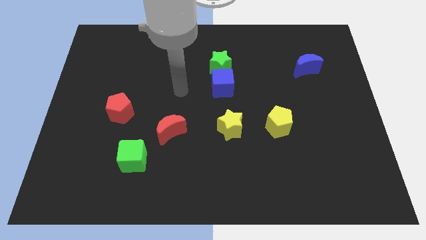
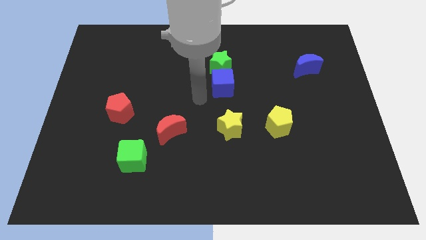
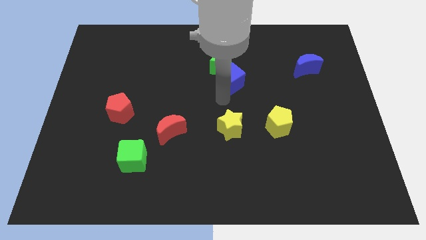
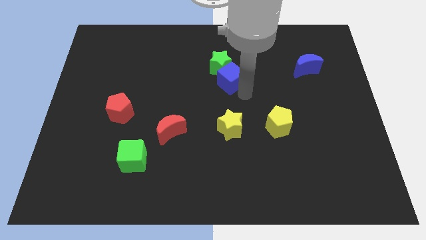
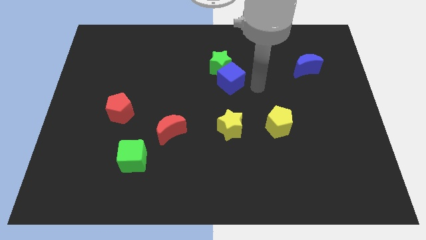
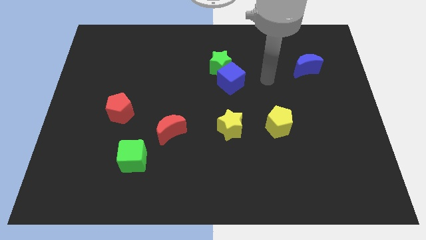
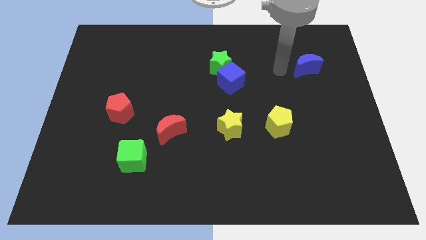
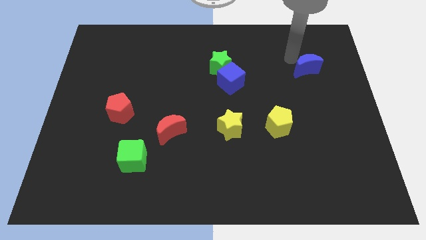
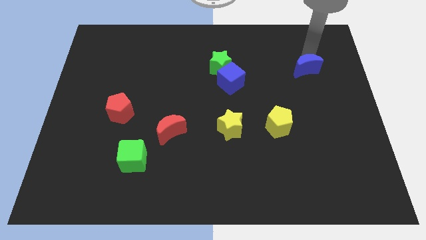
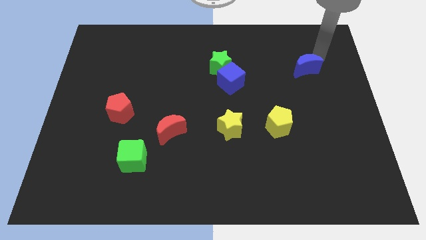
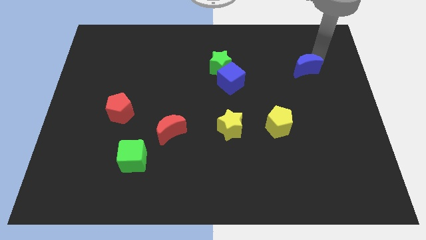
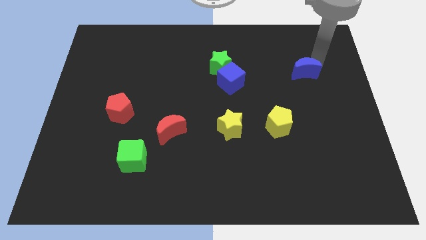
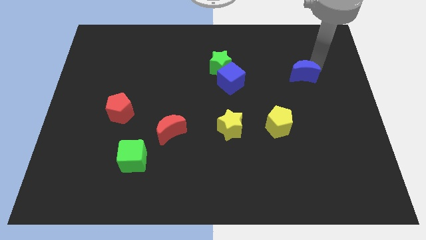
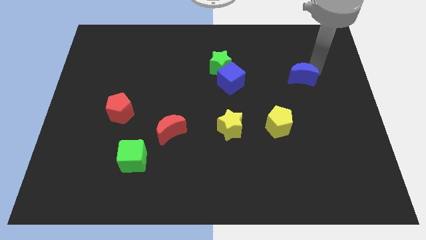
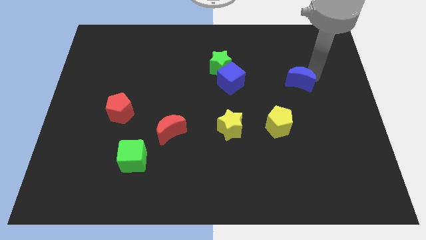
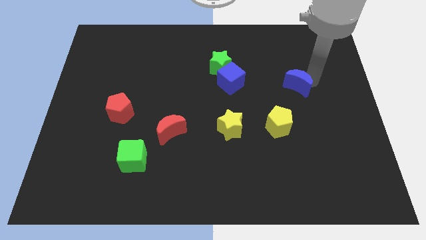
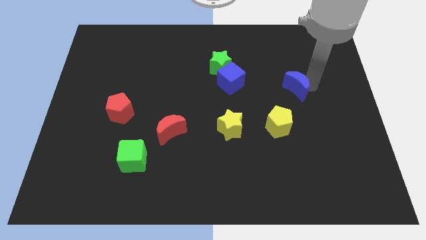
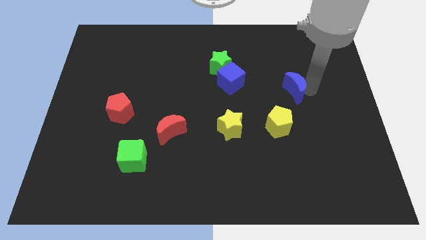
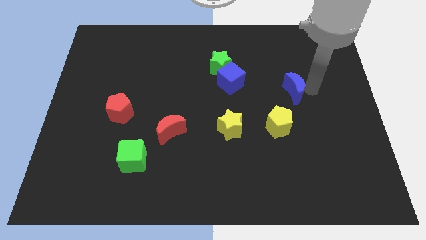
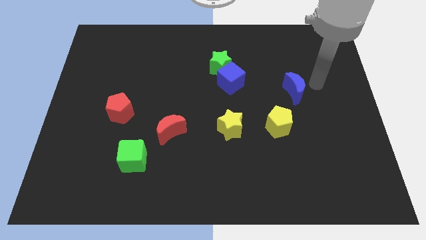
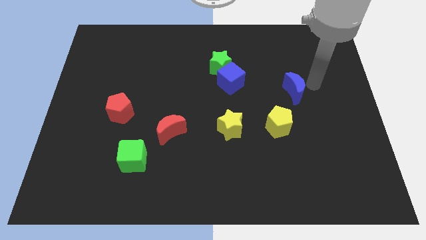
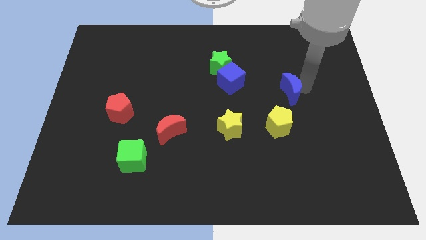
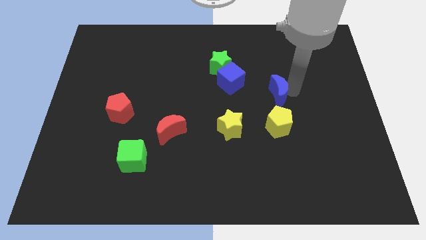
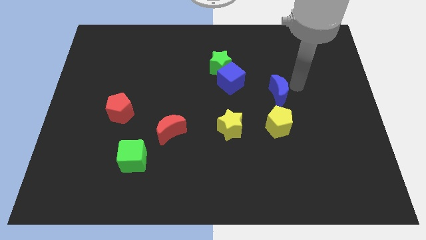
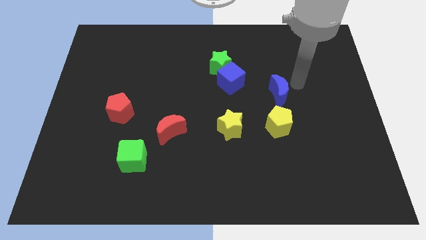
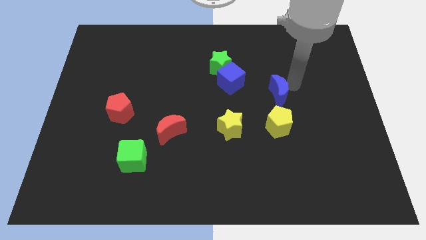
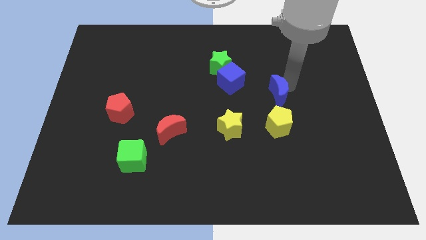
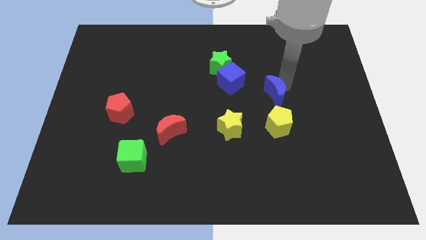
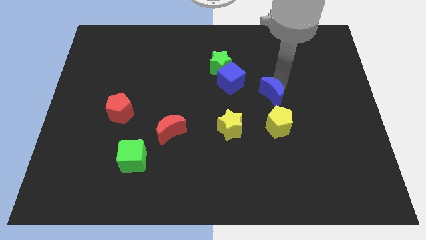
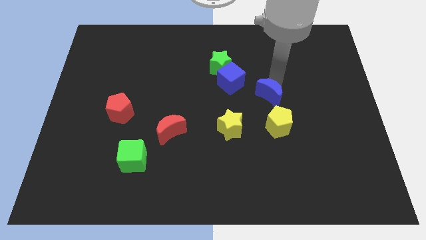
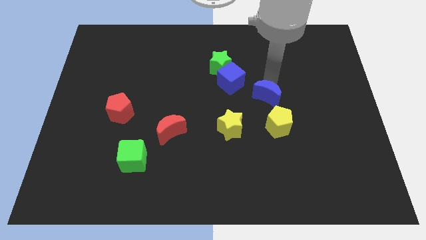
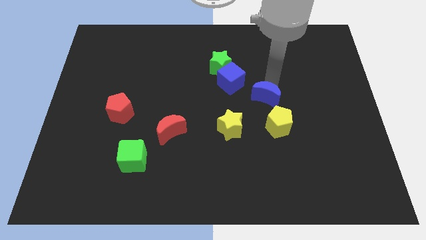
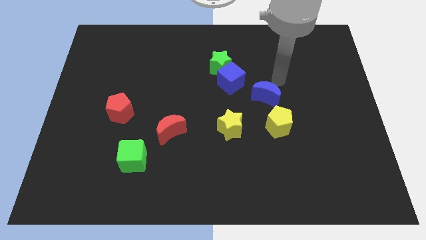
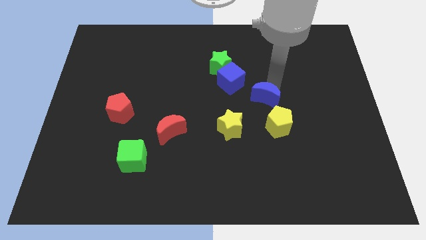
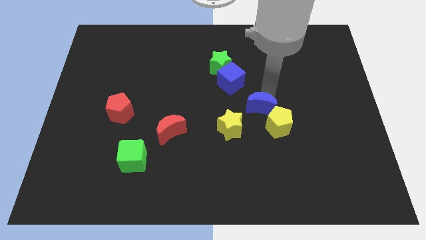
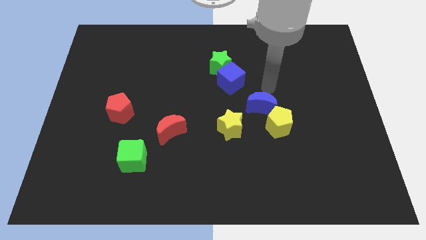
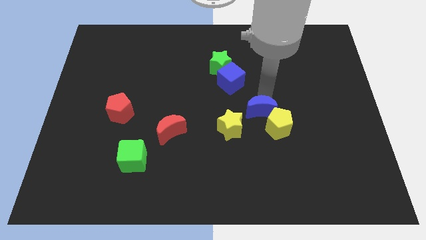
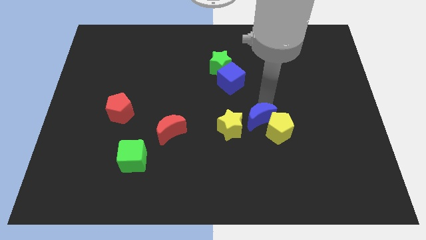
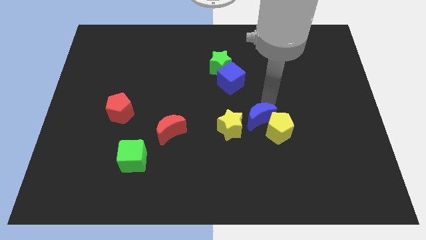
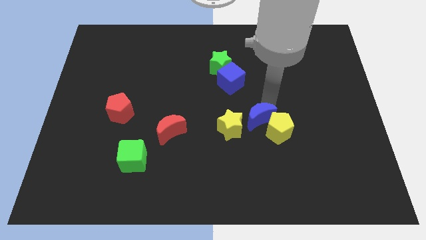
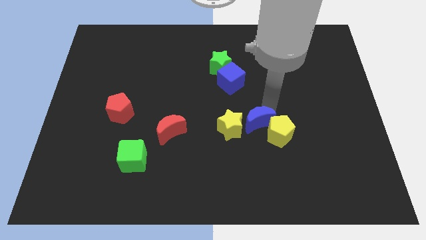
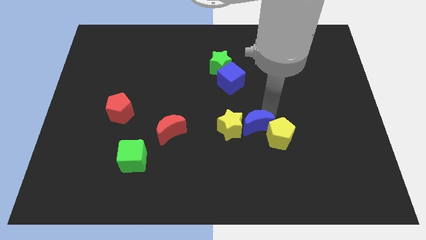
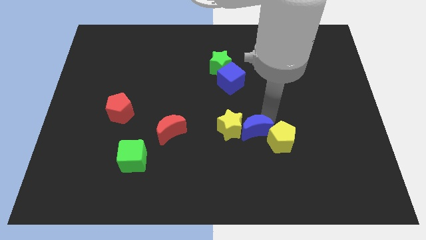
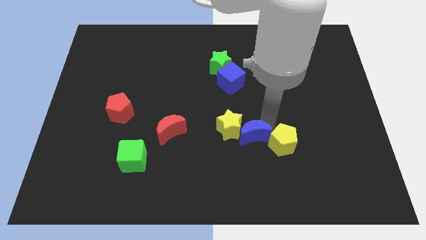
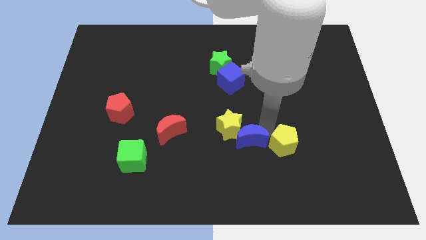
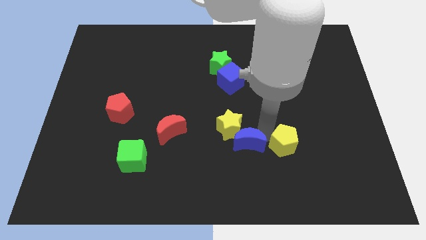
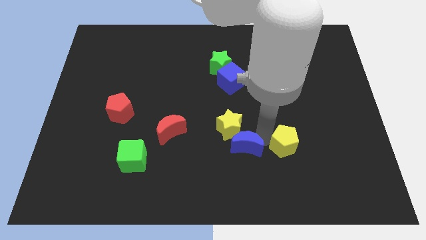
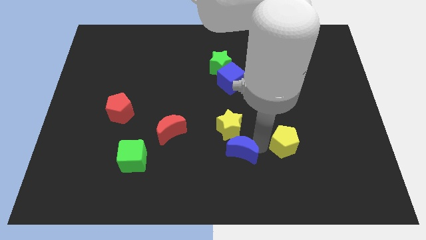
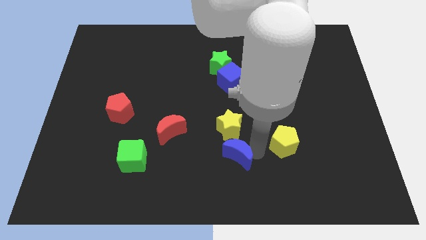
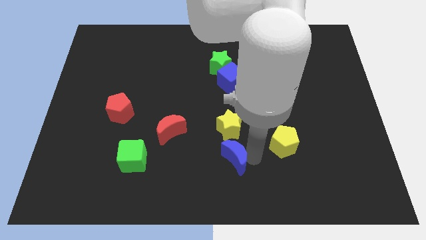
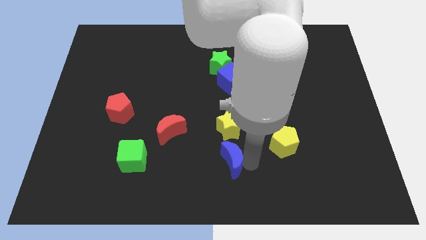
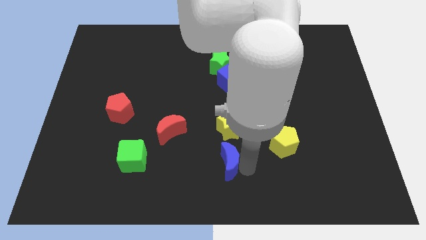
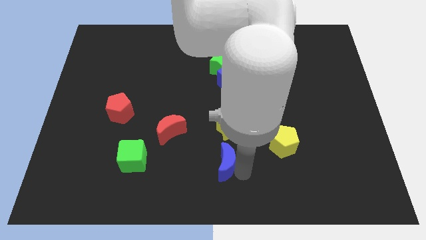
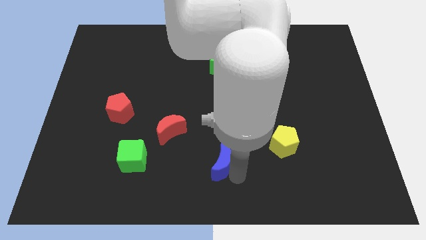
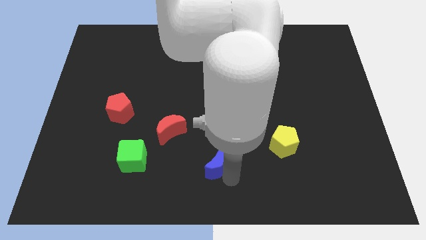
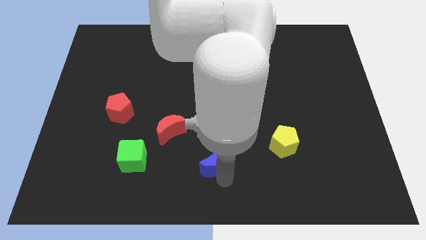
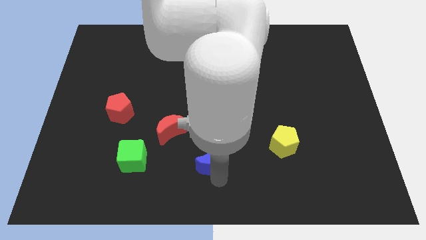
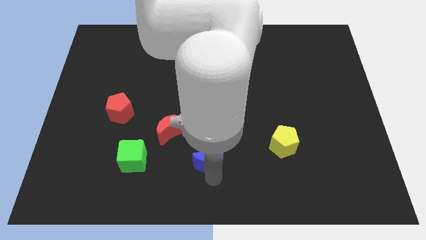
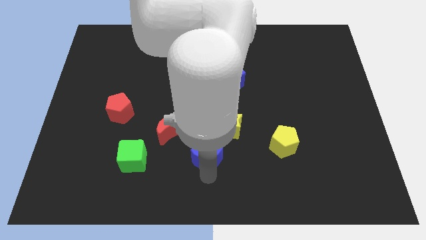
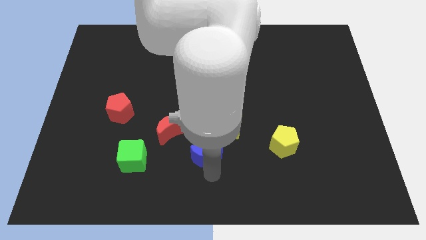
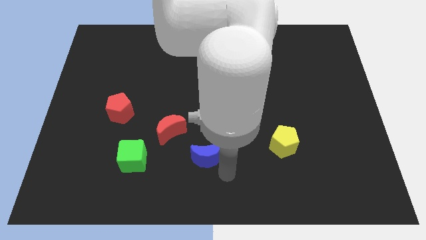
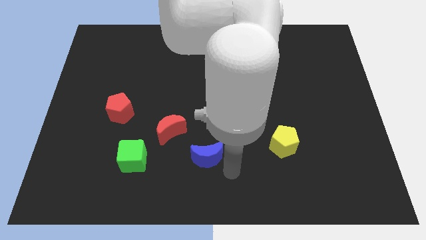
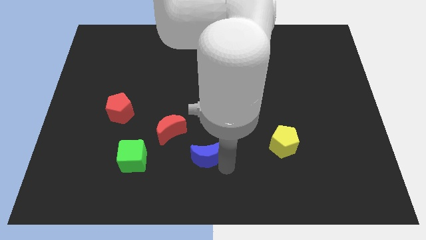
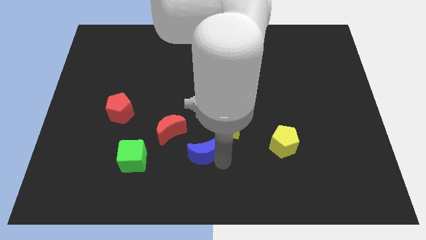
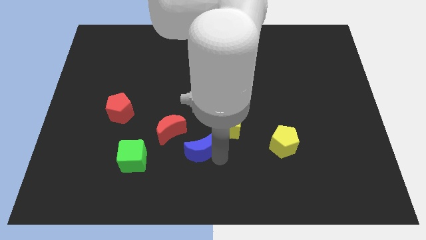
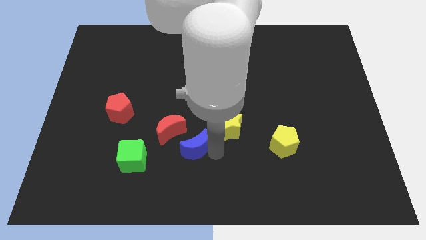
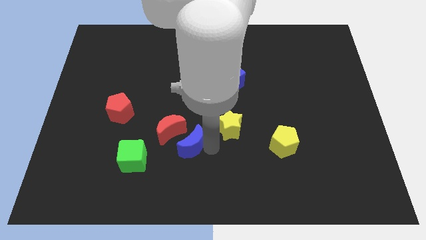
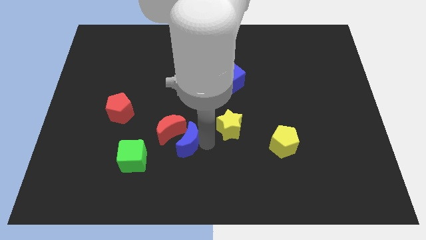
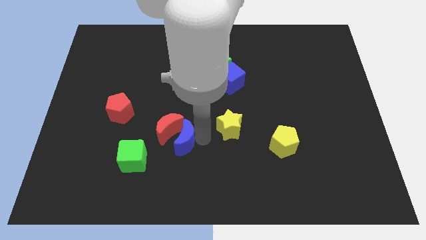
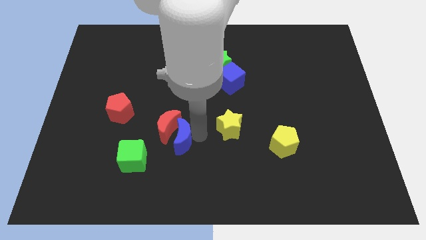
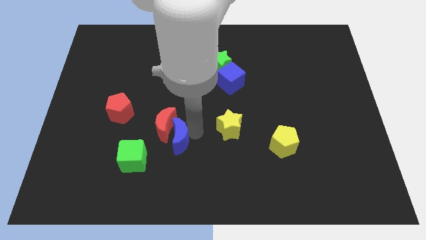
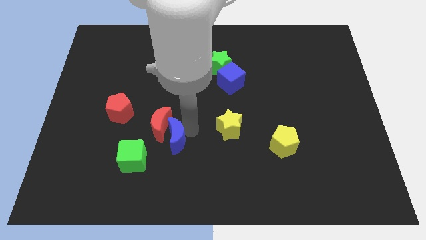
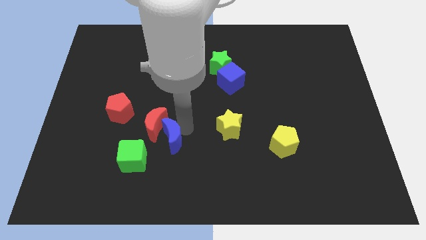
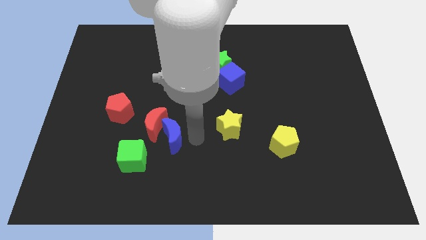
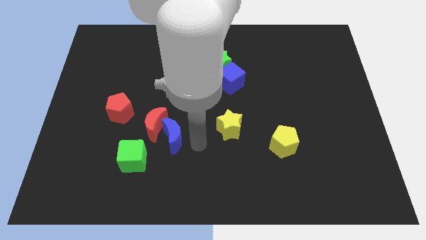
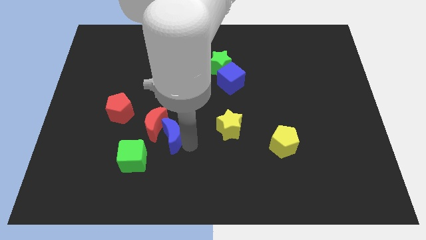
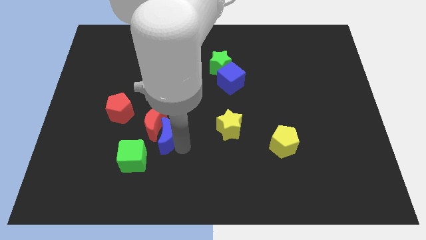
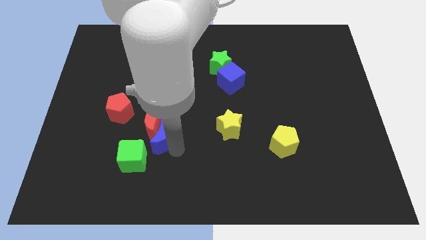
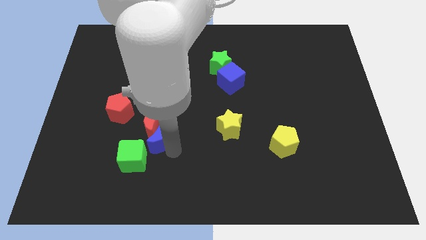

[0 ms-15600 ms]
push the blue moon diagonally down and to the right of the red pentagon

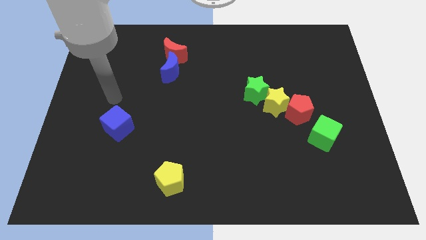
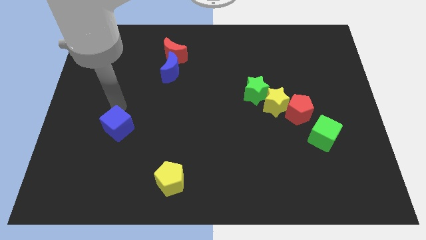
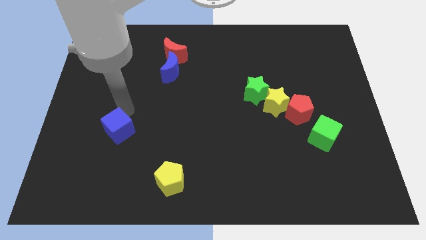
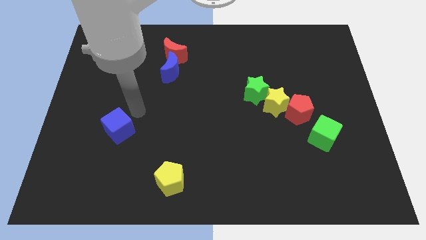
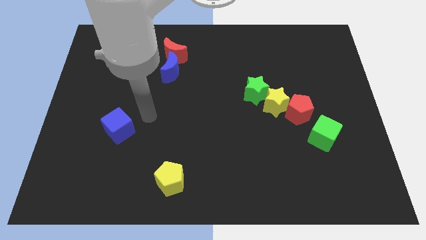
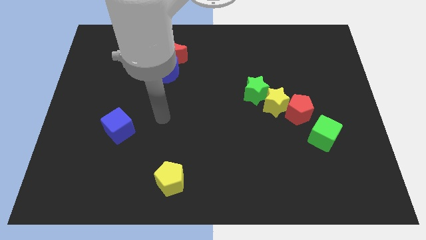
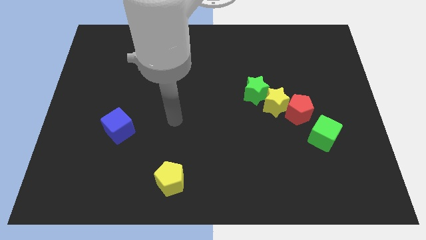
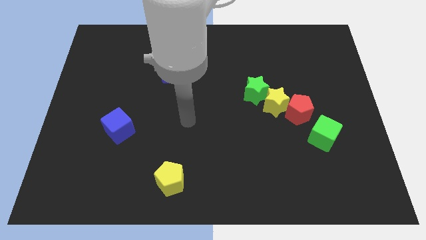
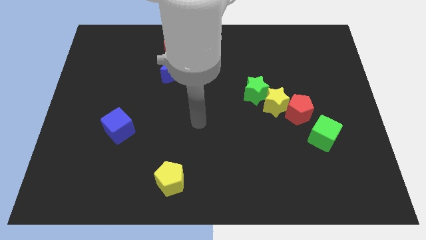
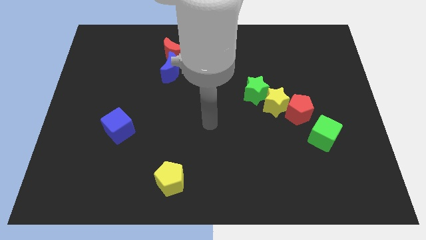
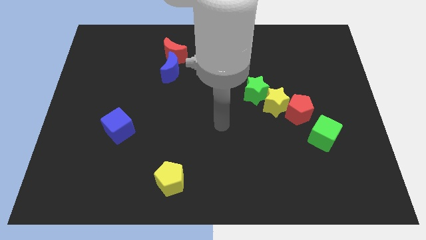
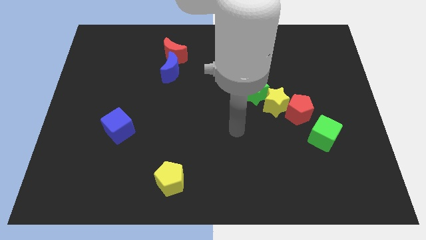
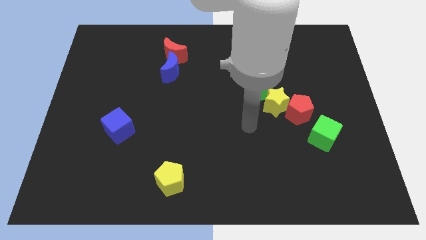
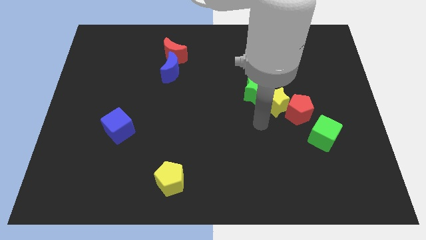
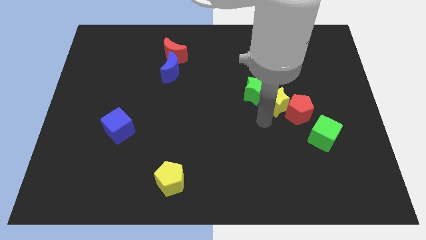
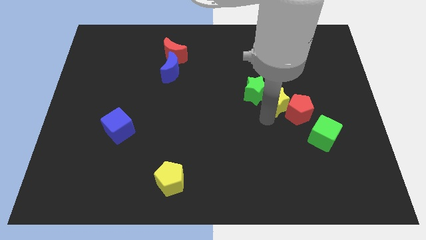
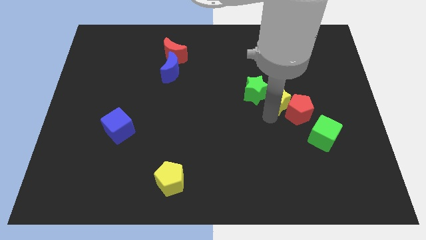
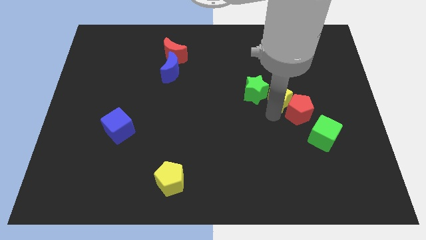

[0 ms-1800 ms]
move the yellow star above the red pentagon
